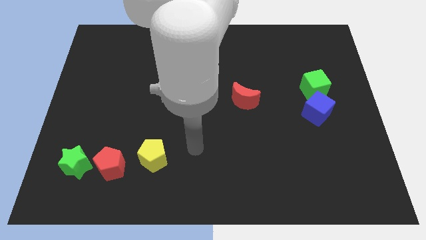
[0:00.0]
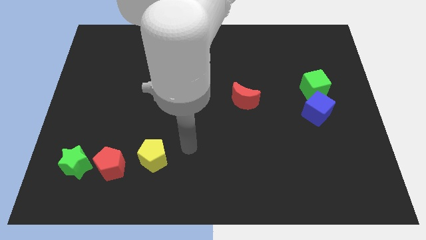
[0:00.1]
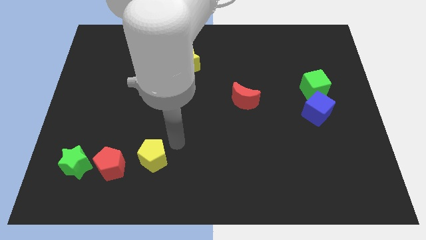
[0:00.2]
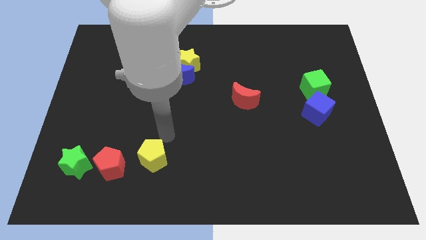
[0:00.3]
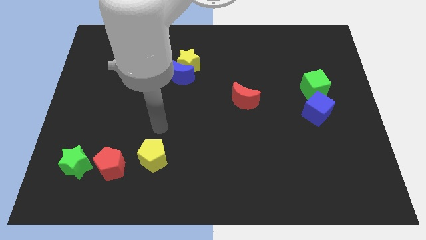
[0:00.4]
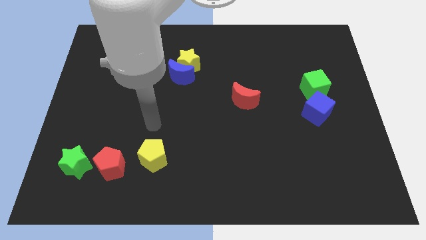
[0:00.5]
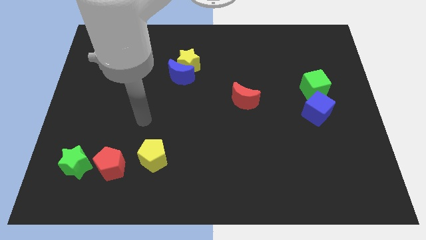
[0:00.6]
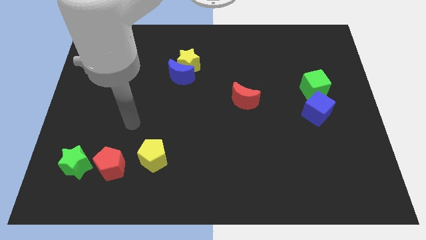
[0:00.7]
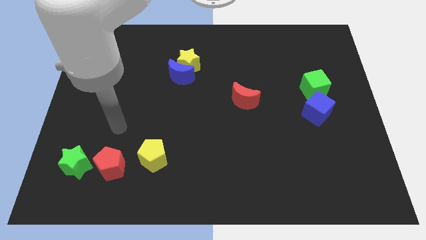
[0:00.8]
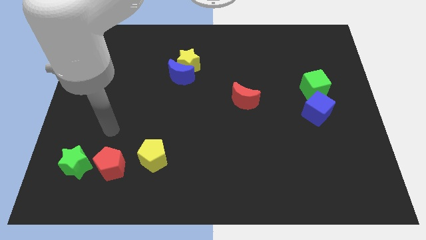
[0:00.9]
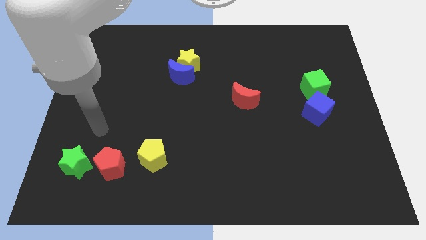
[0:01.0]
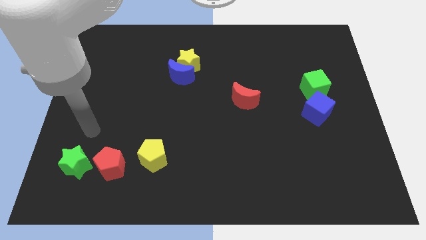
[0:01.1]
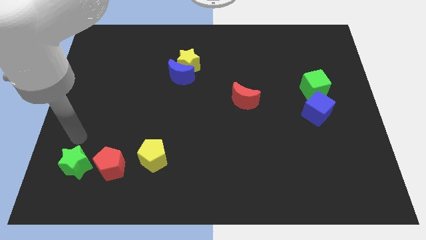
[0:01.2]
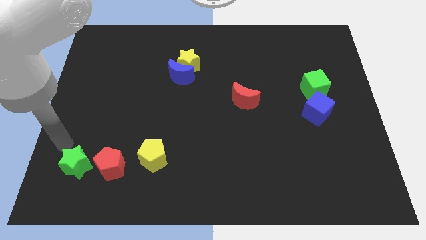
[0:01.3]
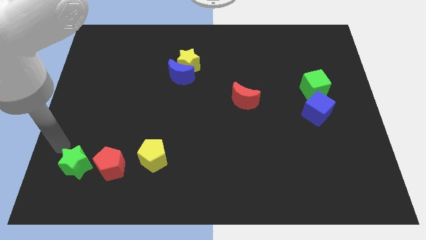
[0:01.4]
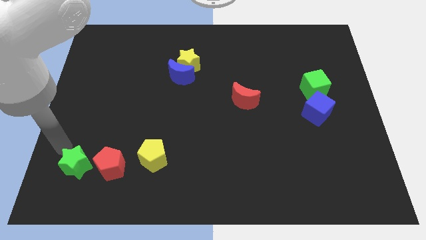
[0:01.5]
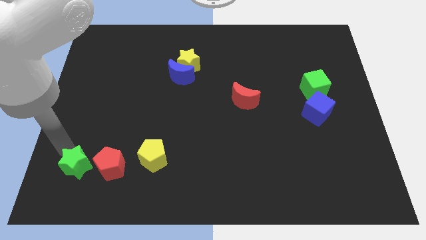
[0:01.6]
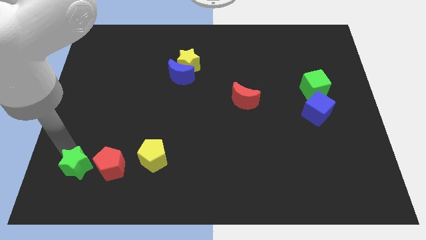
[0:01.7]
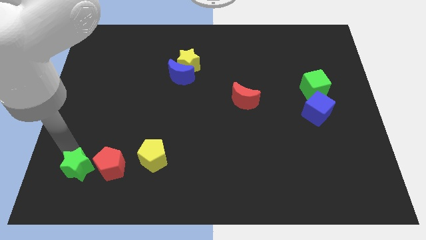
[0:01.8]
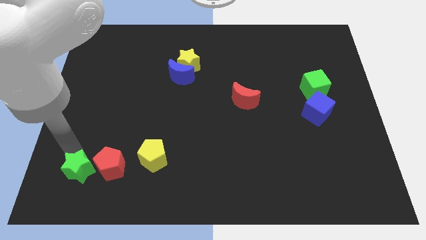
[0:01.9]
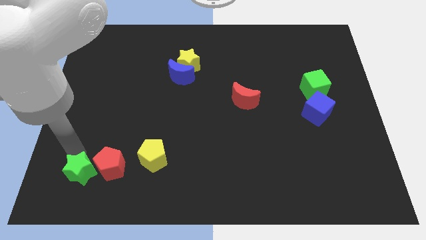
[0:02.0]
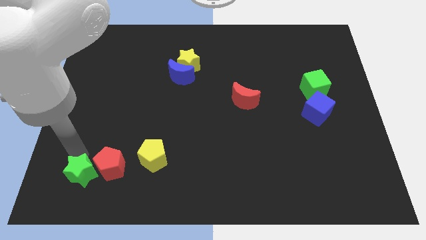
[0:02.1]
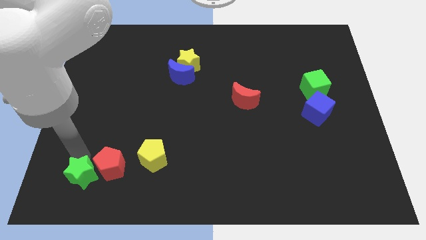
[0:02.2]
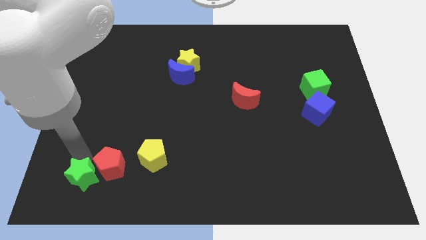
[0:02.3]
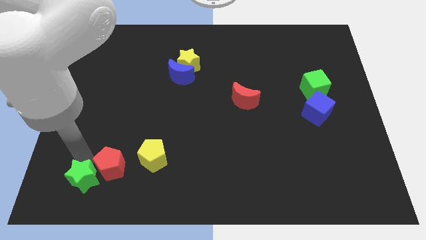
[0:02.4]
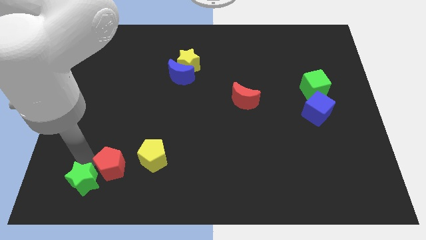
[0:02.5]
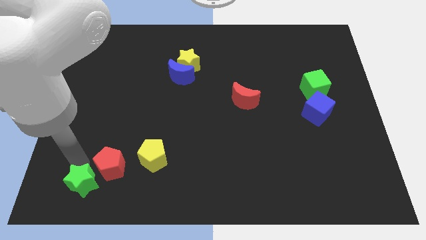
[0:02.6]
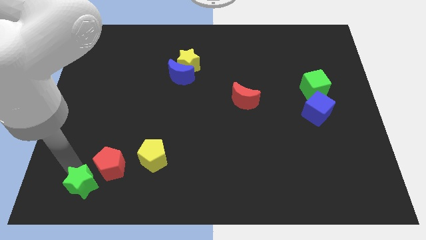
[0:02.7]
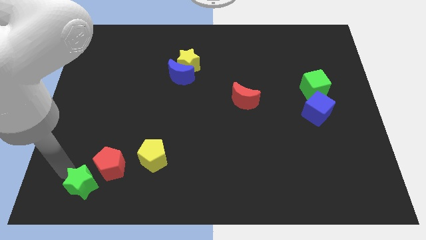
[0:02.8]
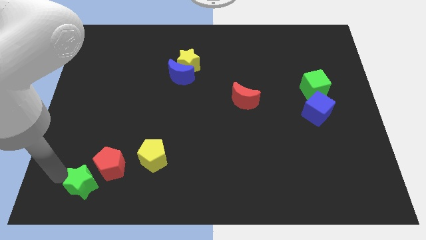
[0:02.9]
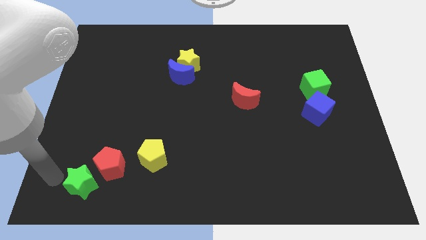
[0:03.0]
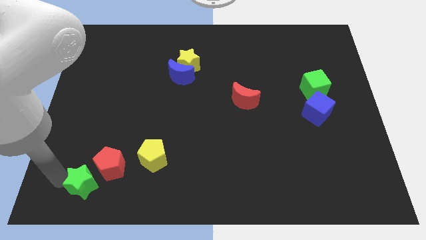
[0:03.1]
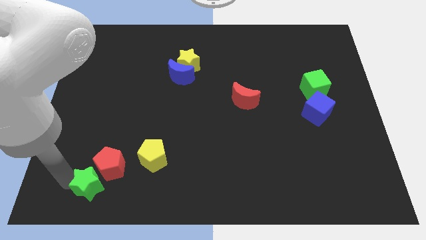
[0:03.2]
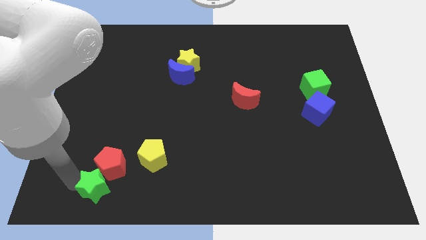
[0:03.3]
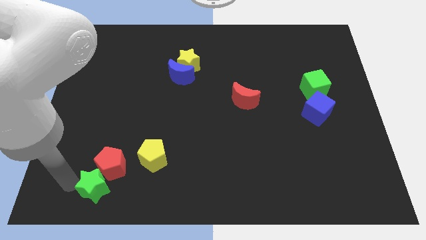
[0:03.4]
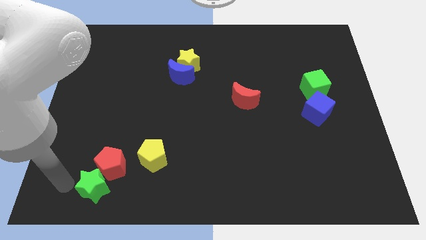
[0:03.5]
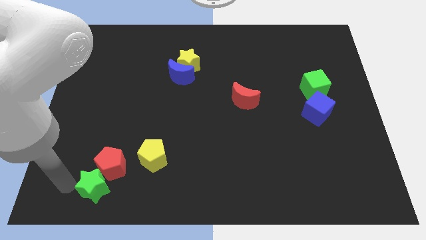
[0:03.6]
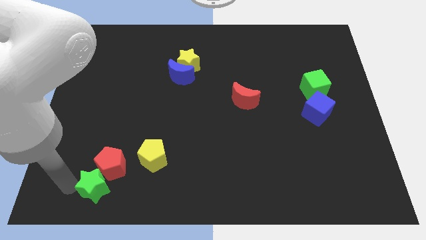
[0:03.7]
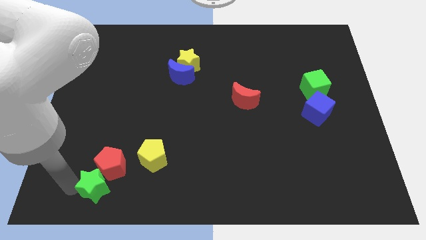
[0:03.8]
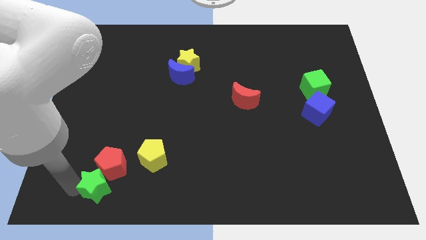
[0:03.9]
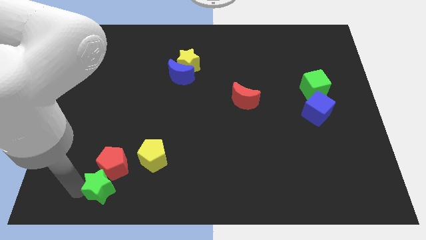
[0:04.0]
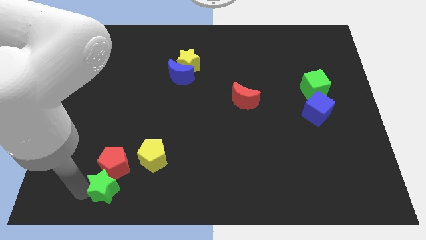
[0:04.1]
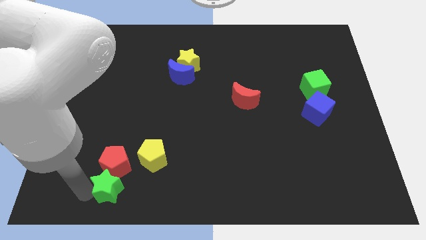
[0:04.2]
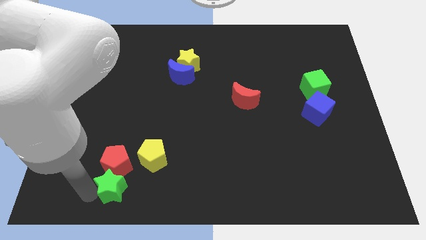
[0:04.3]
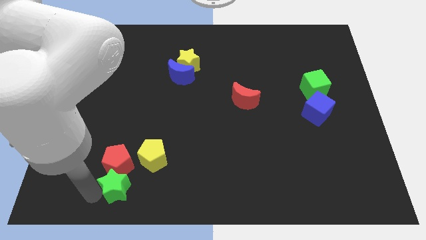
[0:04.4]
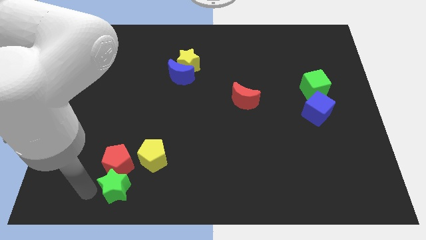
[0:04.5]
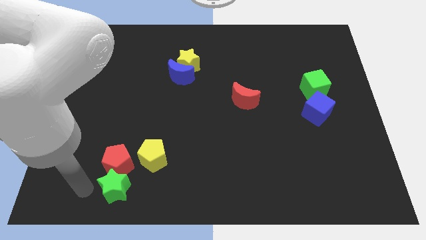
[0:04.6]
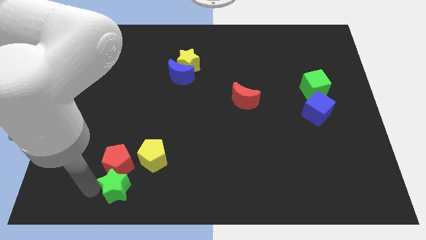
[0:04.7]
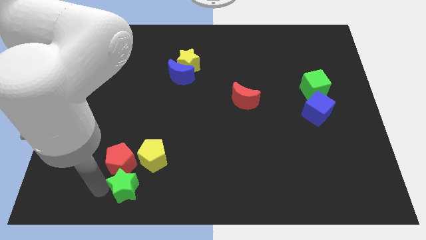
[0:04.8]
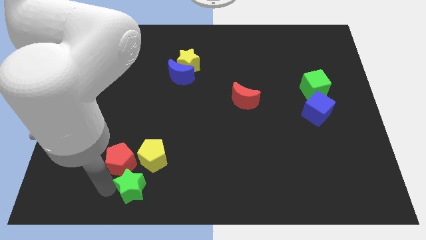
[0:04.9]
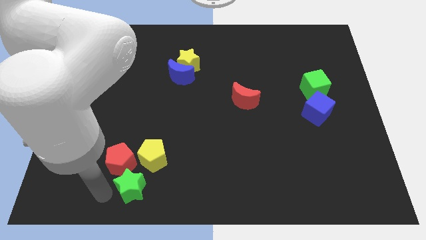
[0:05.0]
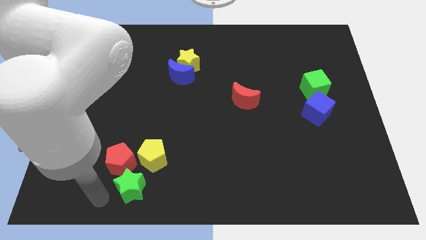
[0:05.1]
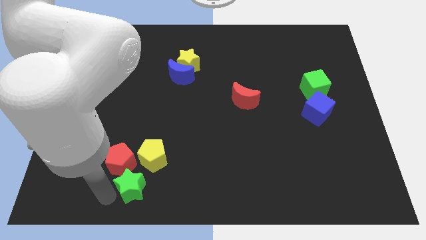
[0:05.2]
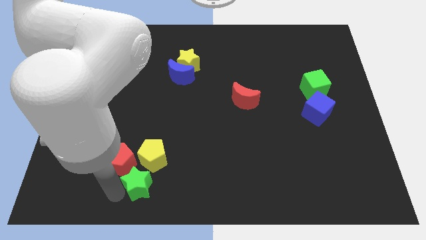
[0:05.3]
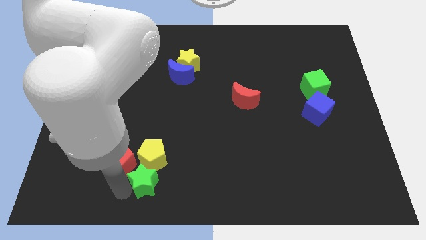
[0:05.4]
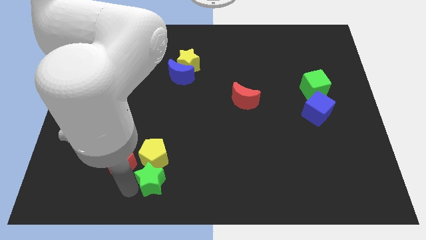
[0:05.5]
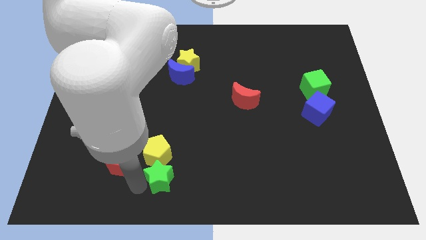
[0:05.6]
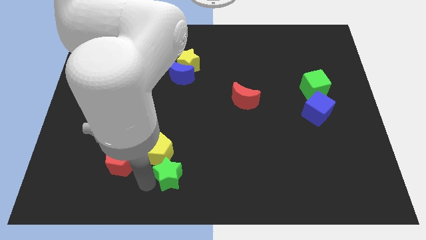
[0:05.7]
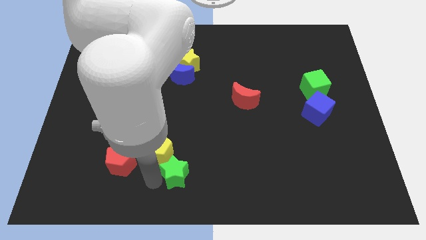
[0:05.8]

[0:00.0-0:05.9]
push the green star to the right

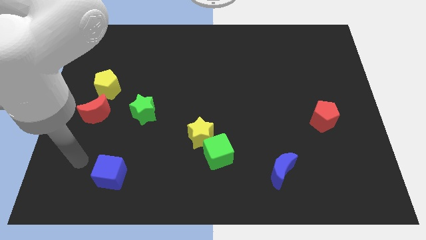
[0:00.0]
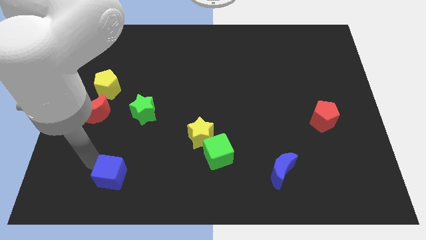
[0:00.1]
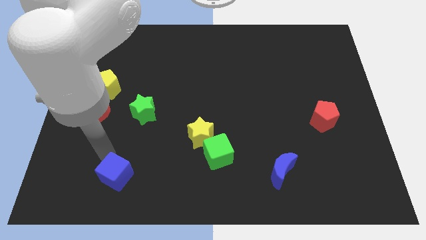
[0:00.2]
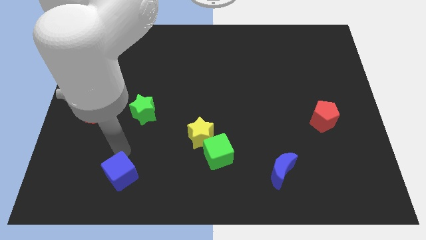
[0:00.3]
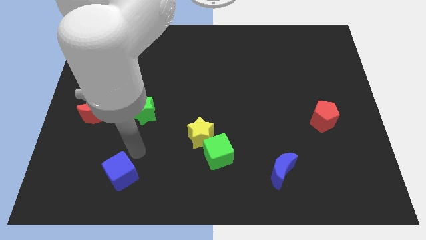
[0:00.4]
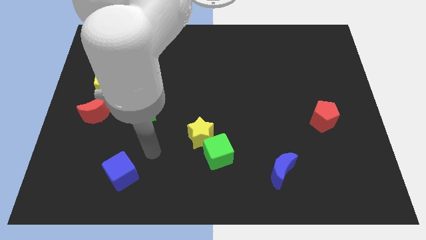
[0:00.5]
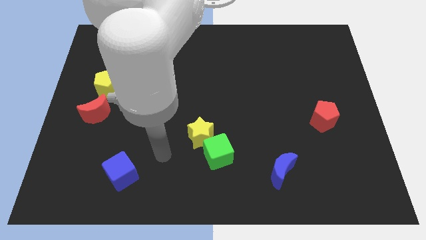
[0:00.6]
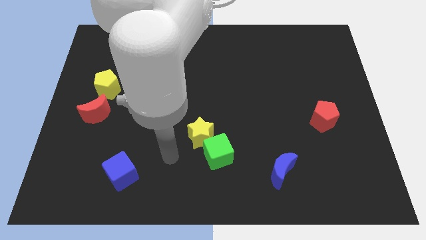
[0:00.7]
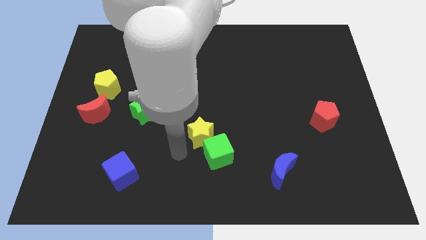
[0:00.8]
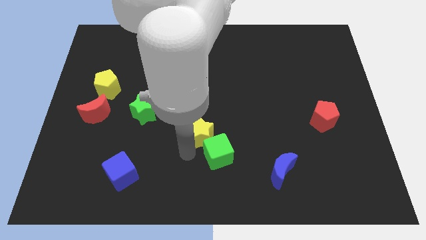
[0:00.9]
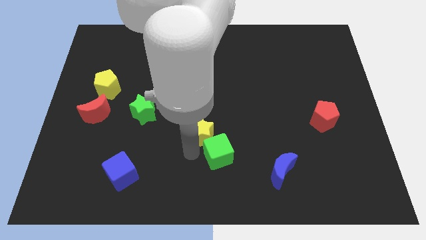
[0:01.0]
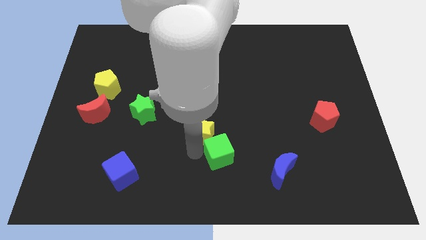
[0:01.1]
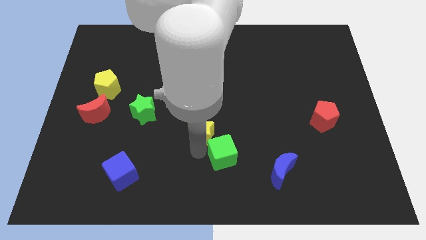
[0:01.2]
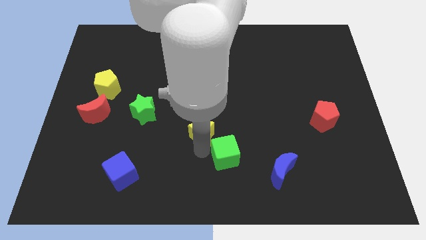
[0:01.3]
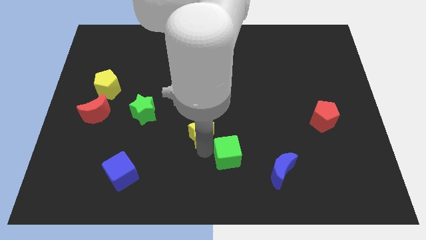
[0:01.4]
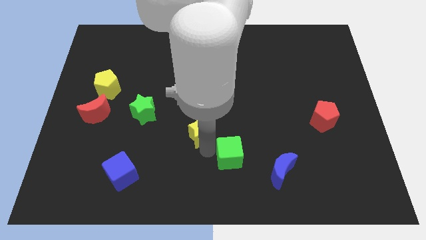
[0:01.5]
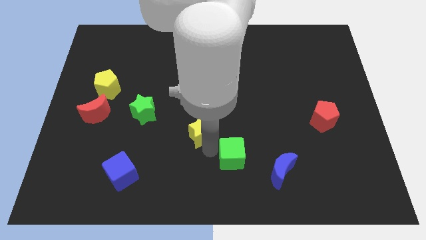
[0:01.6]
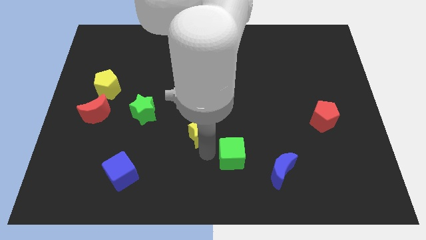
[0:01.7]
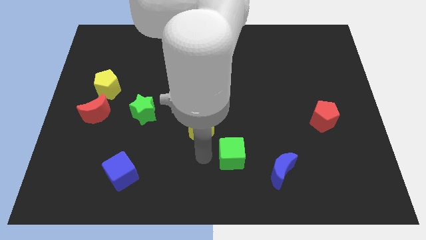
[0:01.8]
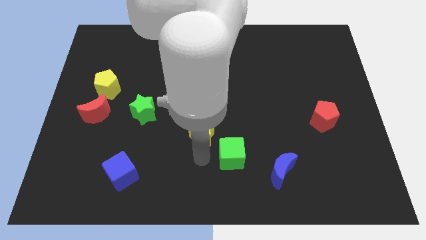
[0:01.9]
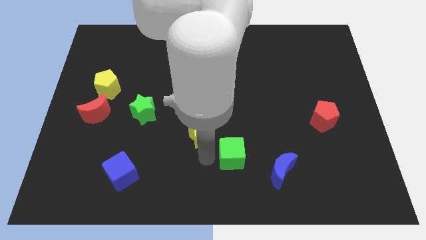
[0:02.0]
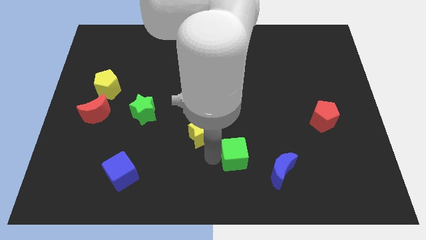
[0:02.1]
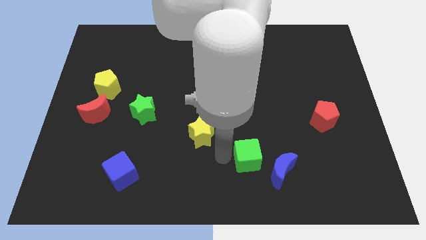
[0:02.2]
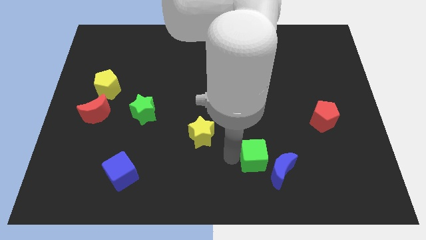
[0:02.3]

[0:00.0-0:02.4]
slightly push the green cube right
